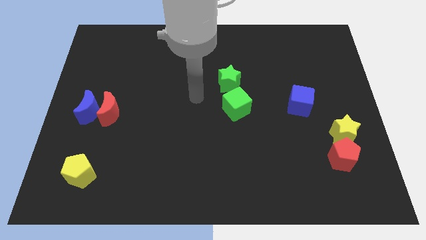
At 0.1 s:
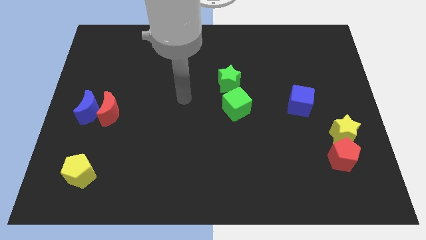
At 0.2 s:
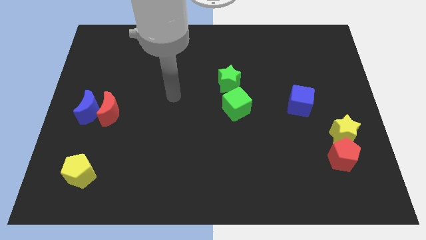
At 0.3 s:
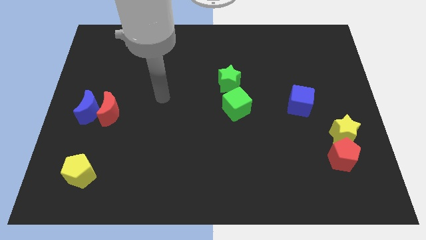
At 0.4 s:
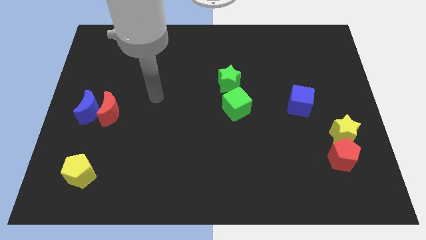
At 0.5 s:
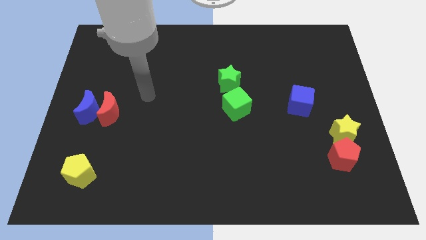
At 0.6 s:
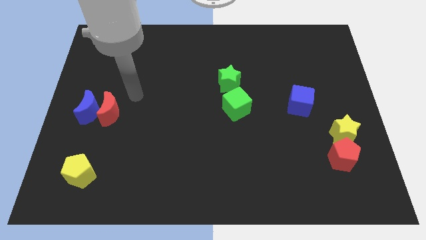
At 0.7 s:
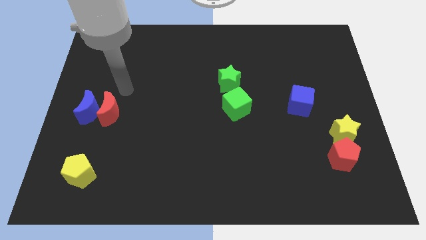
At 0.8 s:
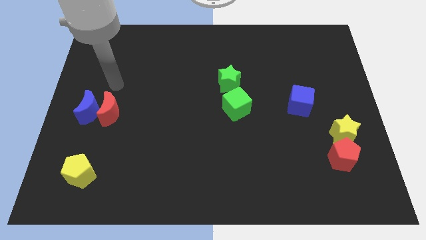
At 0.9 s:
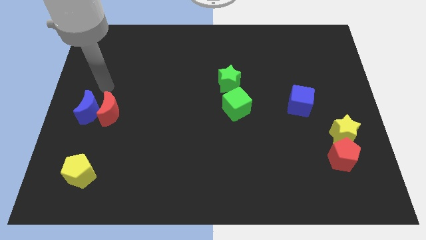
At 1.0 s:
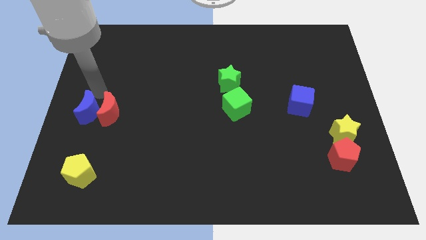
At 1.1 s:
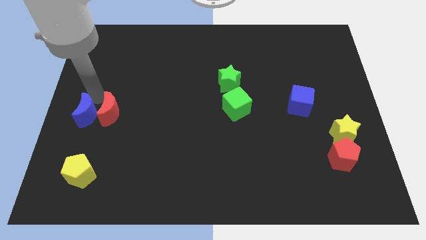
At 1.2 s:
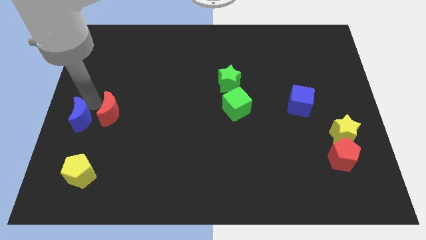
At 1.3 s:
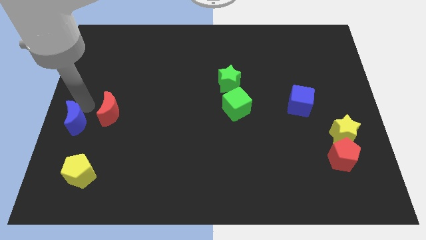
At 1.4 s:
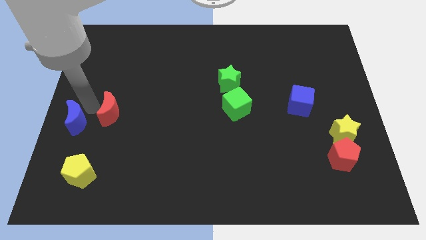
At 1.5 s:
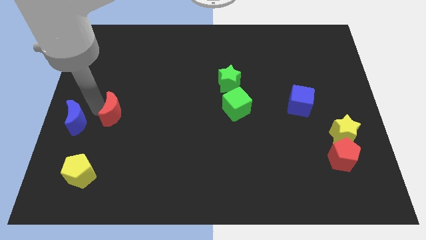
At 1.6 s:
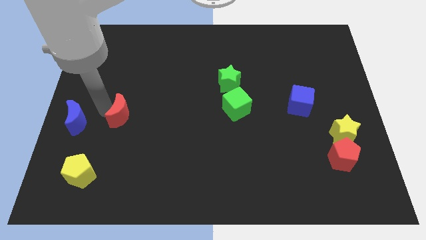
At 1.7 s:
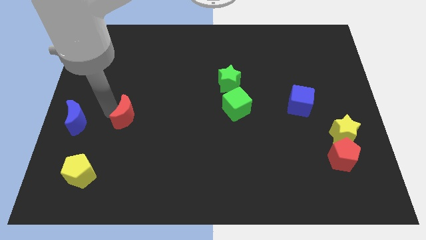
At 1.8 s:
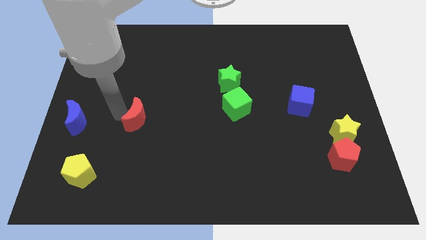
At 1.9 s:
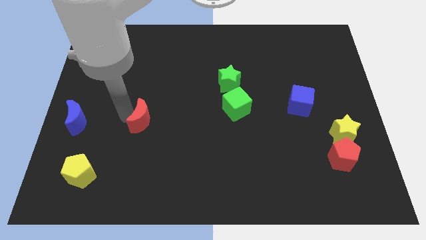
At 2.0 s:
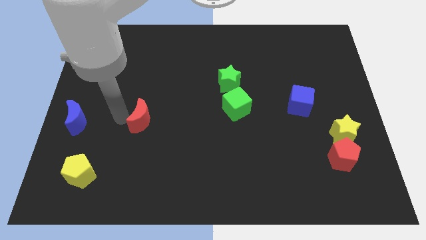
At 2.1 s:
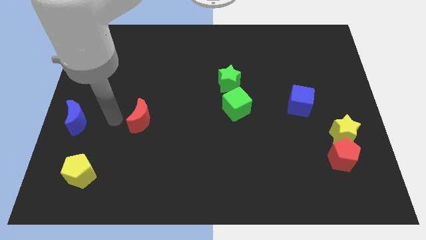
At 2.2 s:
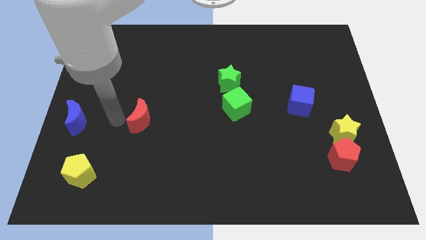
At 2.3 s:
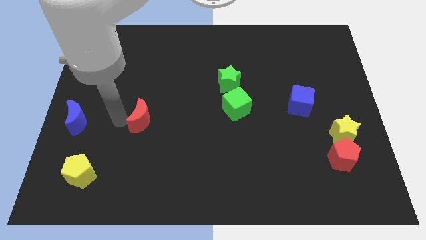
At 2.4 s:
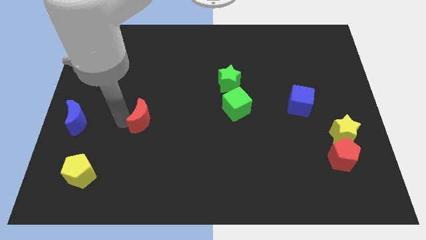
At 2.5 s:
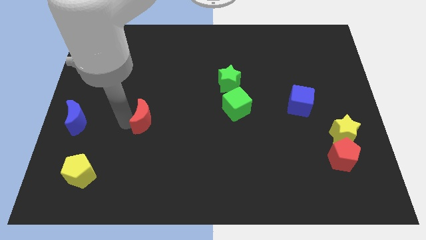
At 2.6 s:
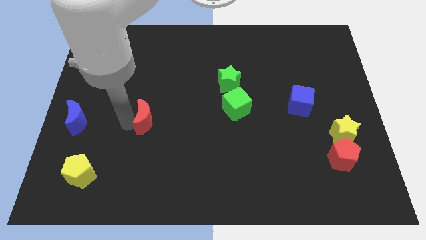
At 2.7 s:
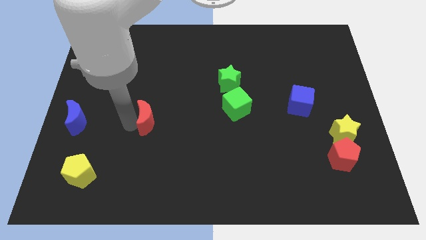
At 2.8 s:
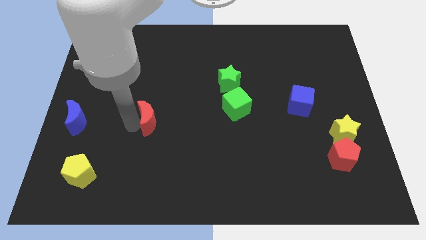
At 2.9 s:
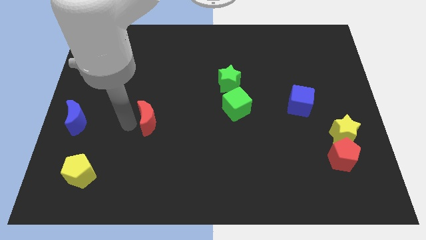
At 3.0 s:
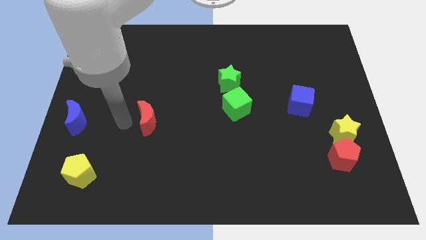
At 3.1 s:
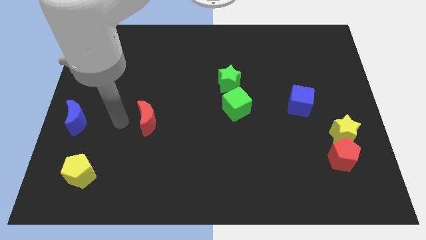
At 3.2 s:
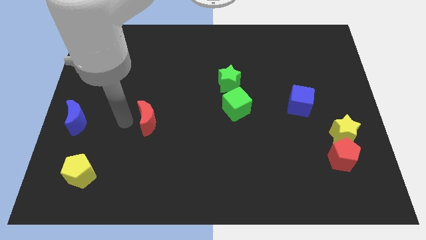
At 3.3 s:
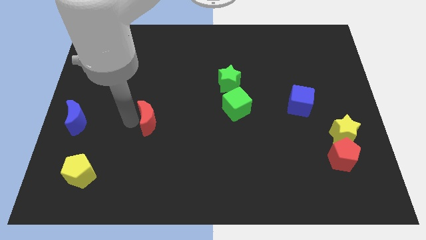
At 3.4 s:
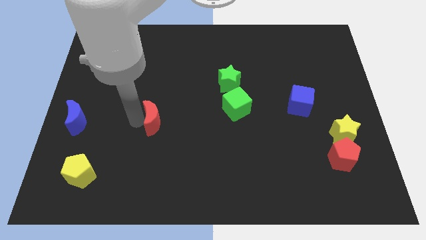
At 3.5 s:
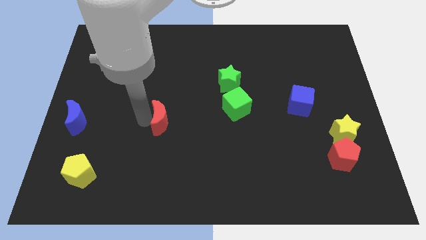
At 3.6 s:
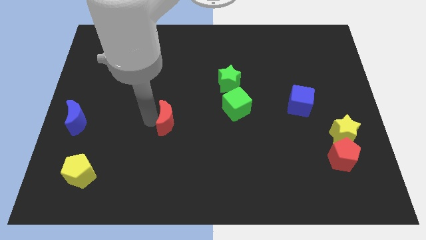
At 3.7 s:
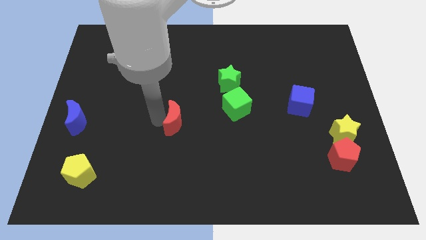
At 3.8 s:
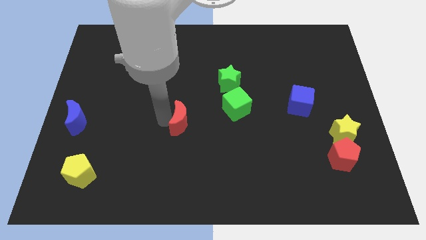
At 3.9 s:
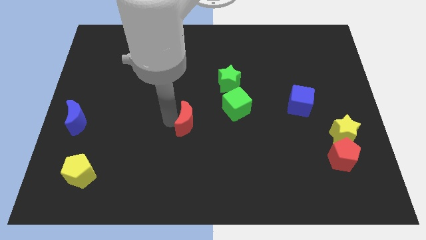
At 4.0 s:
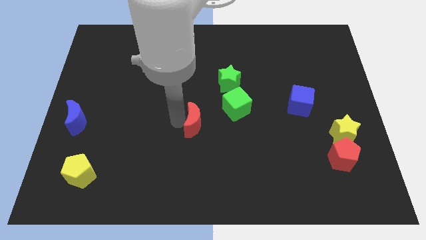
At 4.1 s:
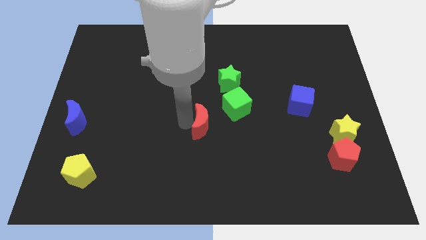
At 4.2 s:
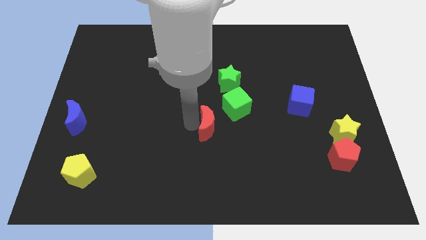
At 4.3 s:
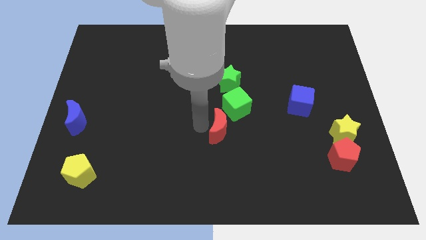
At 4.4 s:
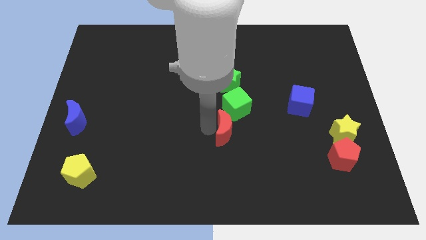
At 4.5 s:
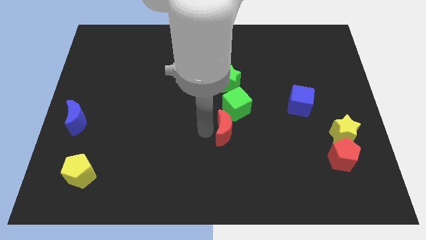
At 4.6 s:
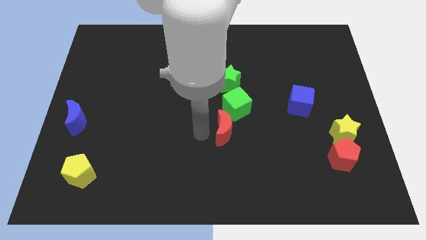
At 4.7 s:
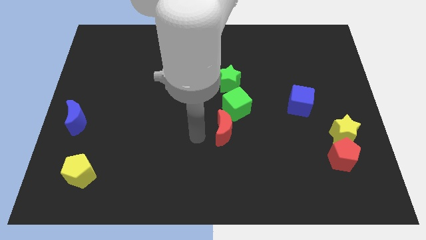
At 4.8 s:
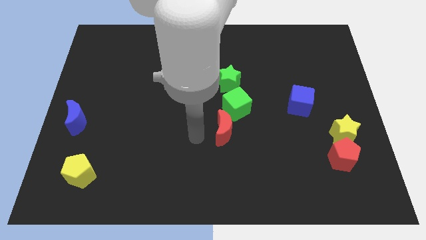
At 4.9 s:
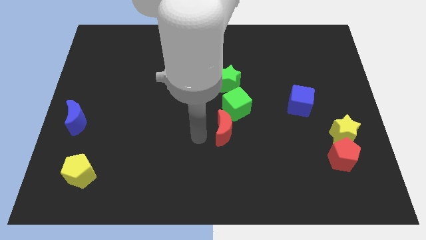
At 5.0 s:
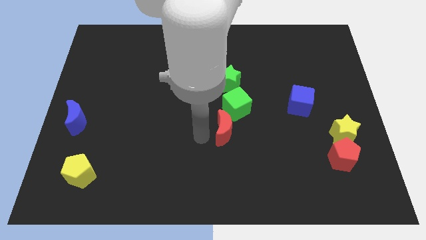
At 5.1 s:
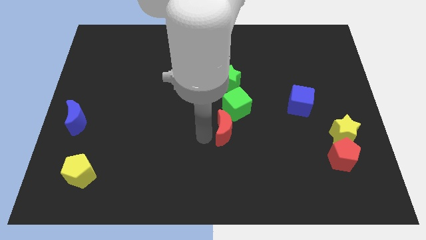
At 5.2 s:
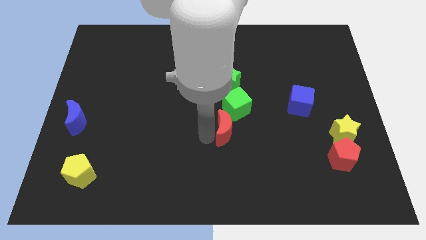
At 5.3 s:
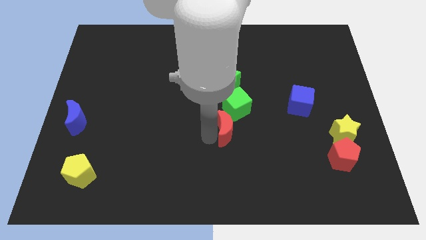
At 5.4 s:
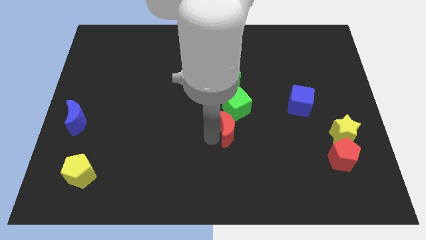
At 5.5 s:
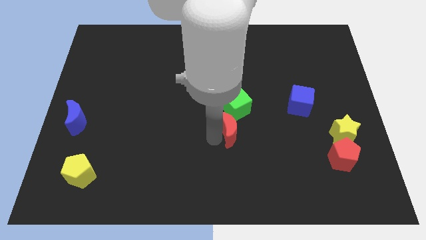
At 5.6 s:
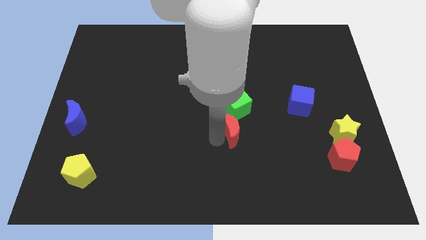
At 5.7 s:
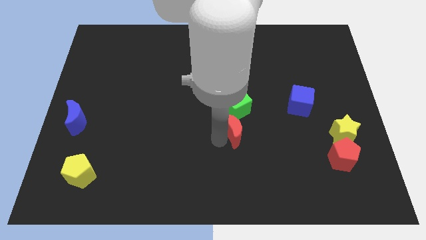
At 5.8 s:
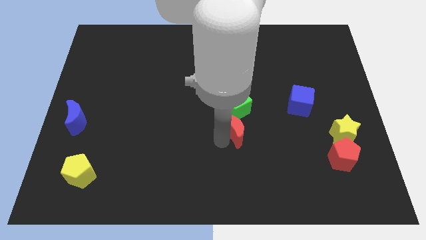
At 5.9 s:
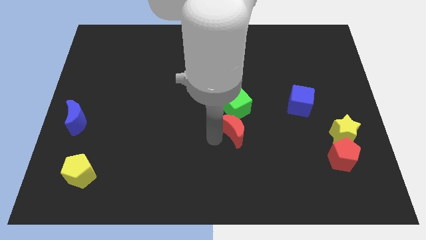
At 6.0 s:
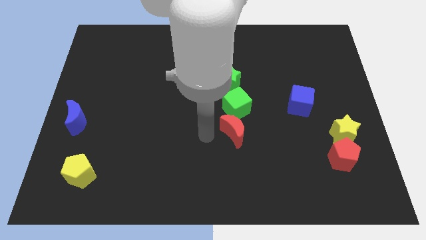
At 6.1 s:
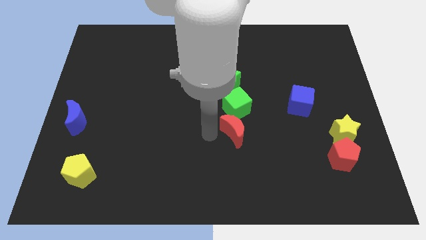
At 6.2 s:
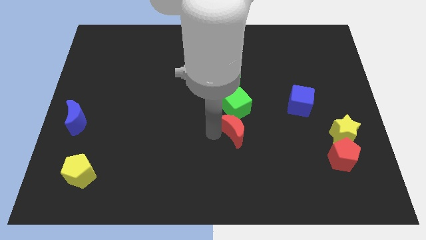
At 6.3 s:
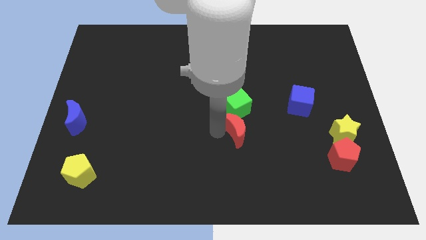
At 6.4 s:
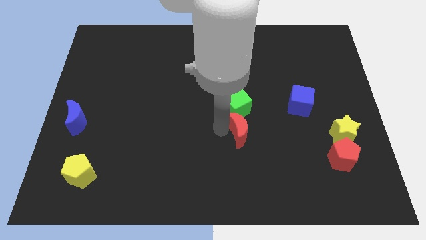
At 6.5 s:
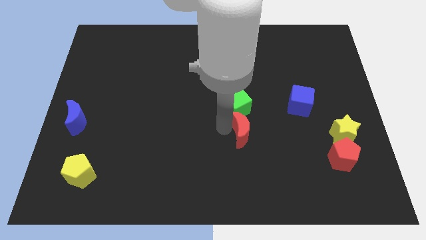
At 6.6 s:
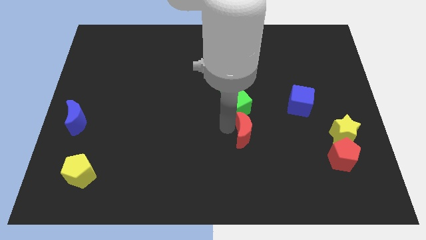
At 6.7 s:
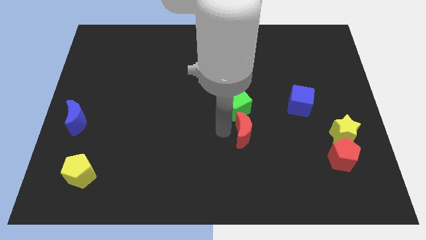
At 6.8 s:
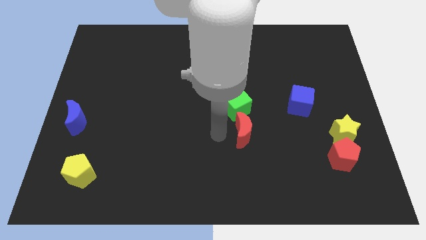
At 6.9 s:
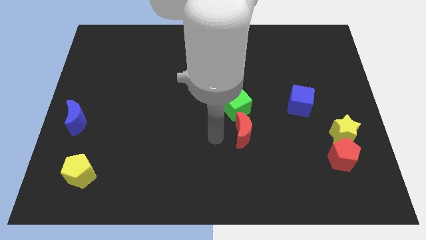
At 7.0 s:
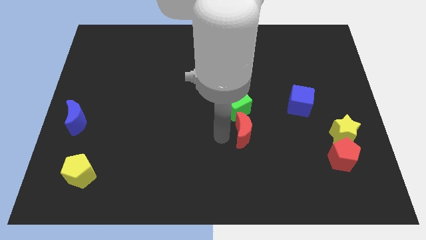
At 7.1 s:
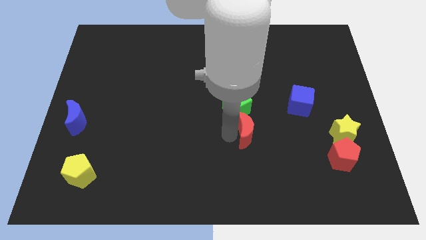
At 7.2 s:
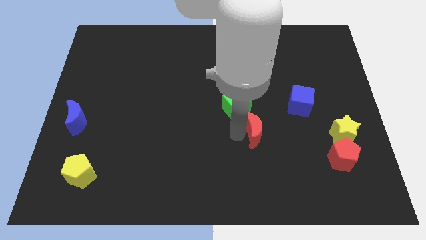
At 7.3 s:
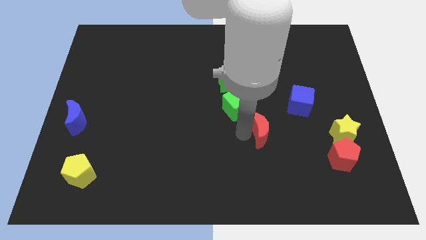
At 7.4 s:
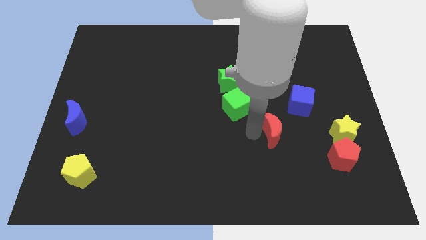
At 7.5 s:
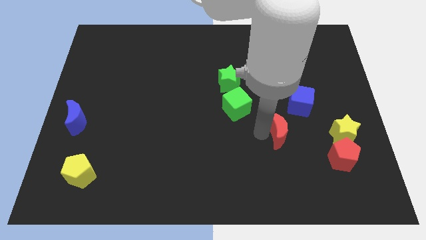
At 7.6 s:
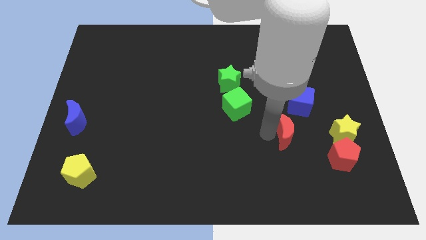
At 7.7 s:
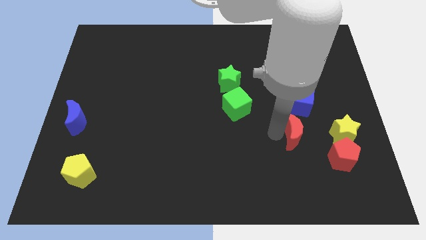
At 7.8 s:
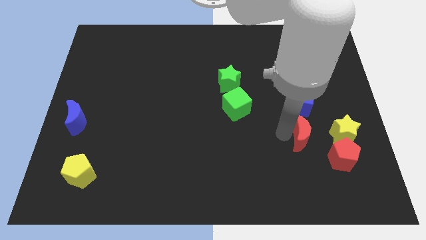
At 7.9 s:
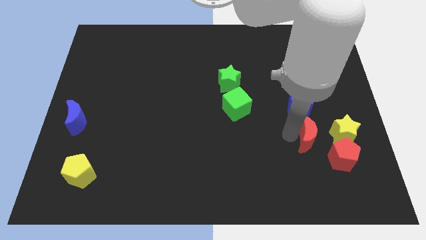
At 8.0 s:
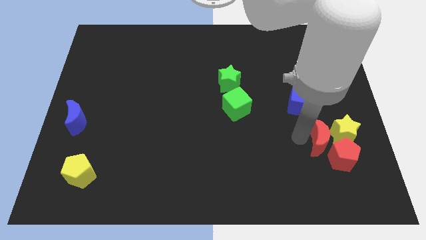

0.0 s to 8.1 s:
move the red moon to the yellow star

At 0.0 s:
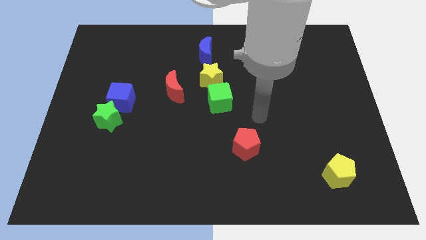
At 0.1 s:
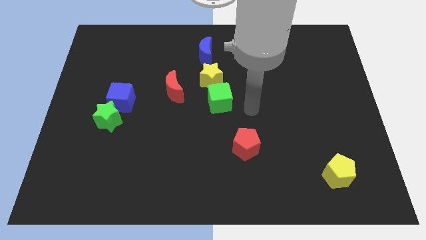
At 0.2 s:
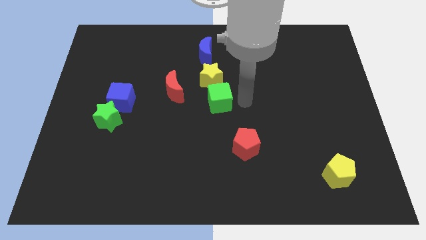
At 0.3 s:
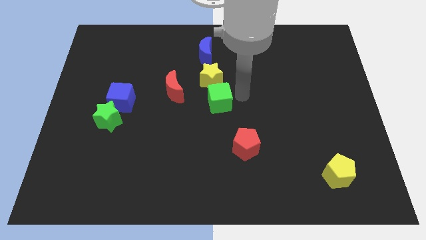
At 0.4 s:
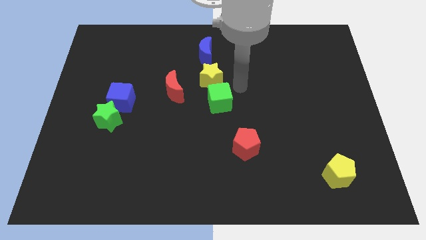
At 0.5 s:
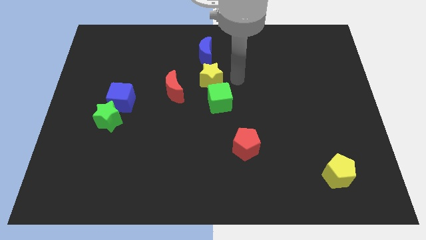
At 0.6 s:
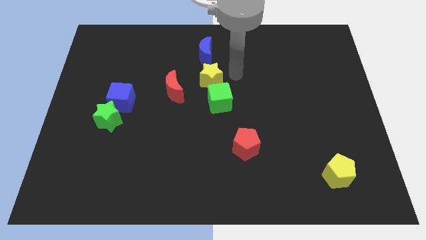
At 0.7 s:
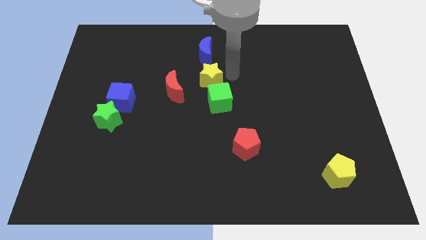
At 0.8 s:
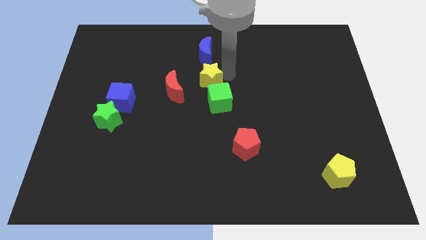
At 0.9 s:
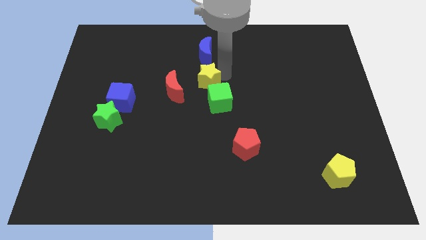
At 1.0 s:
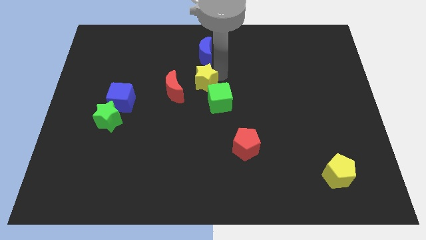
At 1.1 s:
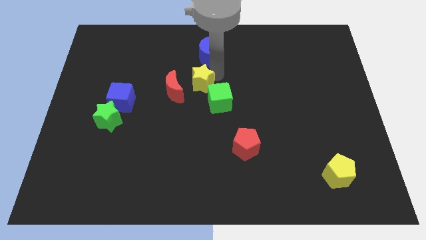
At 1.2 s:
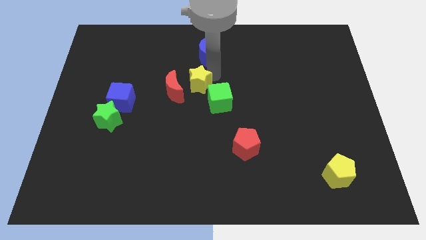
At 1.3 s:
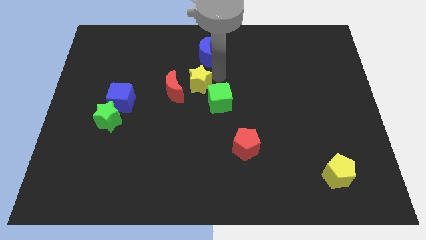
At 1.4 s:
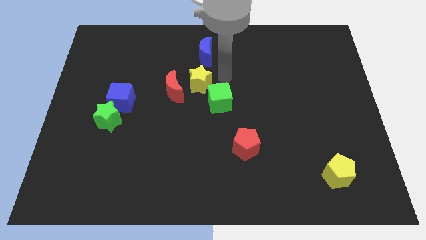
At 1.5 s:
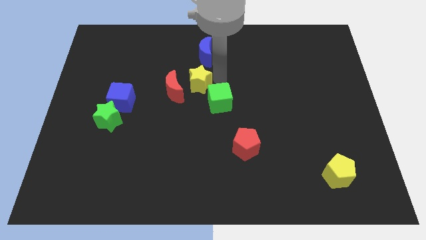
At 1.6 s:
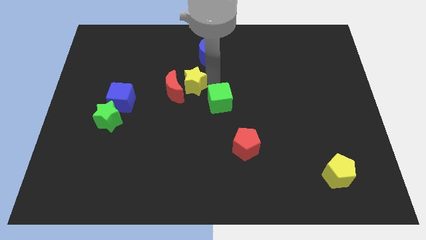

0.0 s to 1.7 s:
push the yellow star towards the red moon
